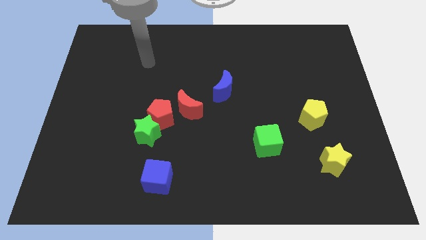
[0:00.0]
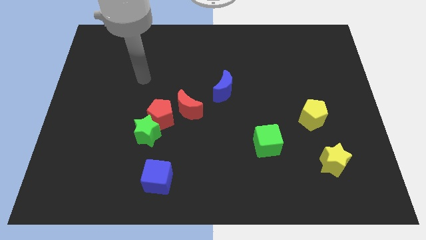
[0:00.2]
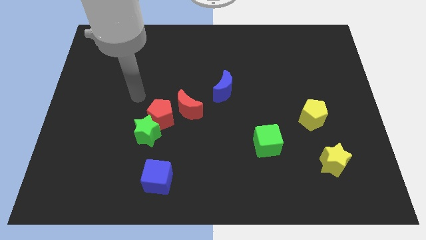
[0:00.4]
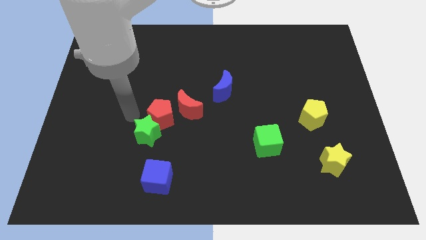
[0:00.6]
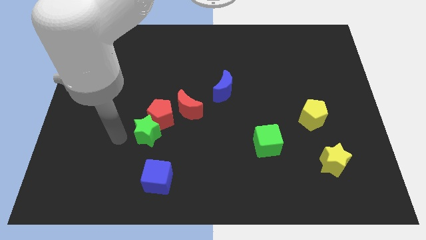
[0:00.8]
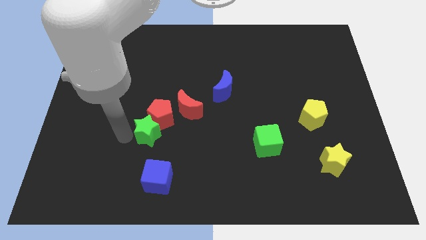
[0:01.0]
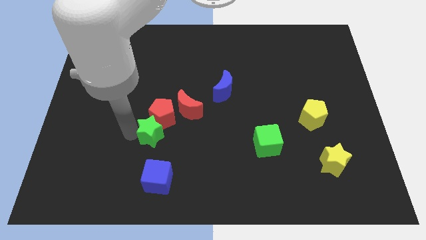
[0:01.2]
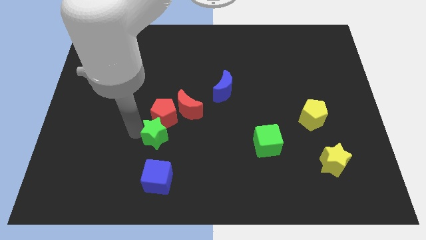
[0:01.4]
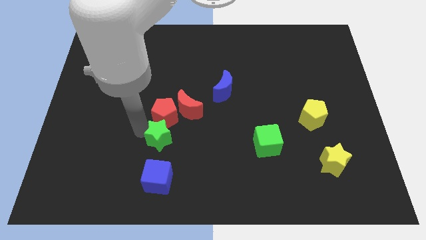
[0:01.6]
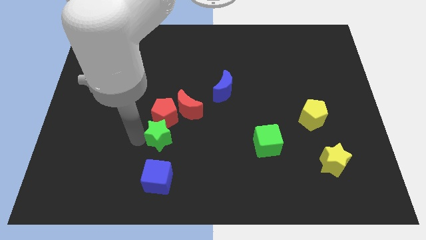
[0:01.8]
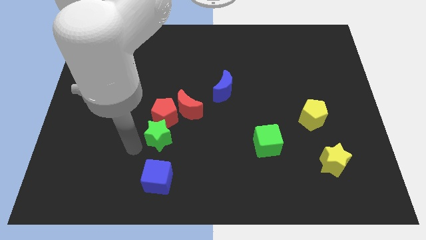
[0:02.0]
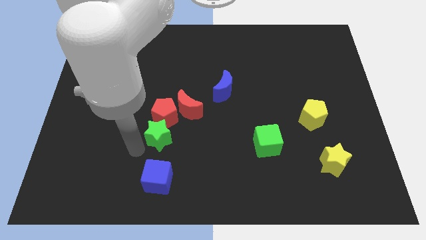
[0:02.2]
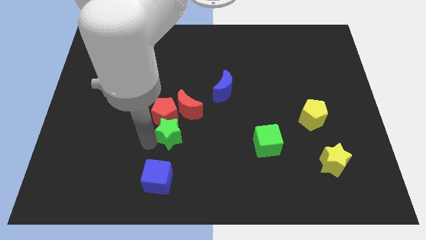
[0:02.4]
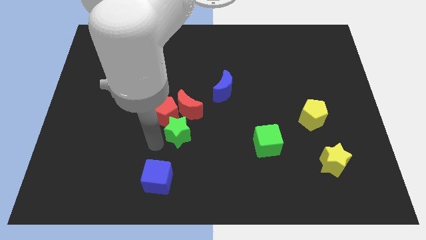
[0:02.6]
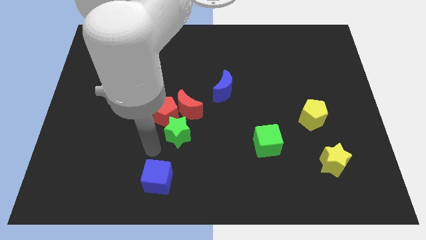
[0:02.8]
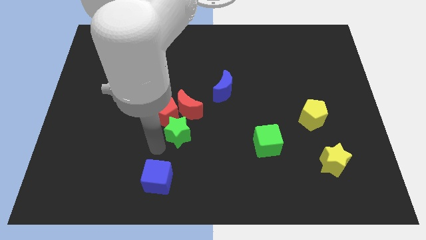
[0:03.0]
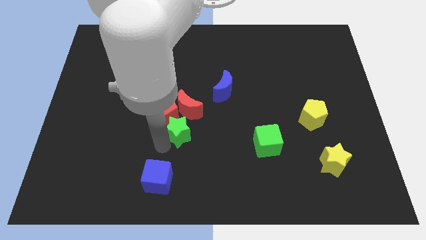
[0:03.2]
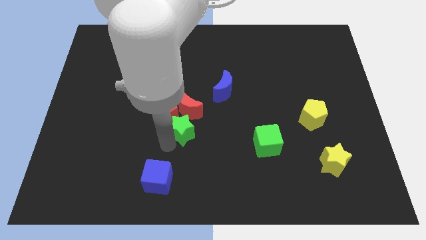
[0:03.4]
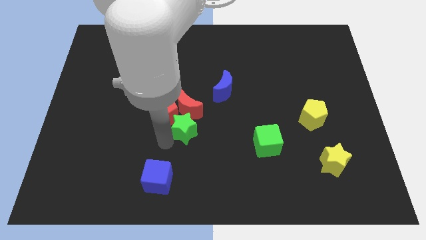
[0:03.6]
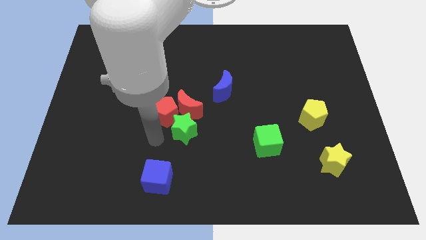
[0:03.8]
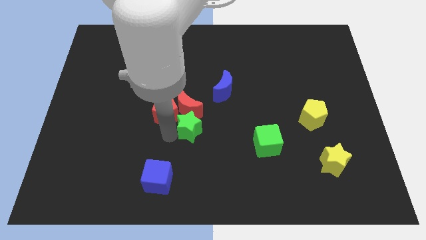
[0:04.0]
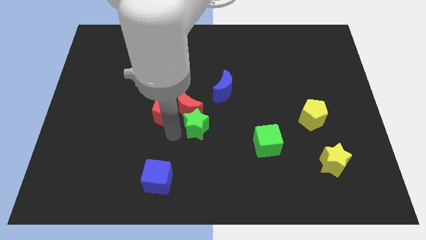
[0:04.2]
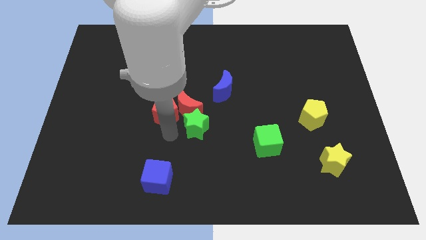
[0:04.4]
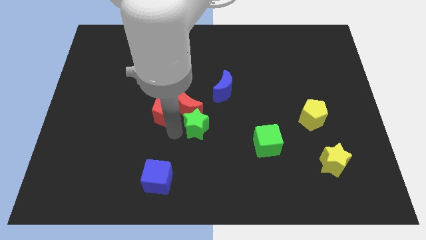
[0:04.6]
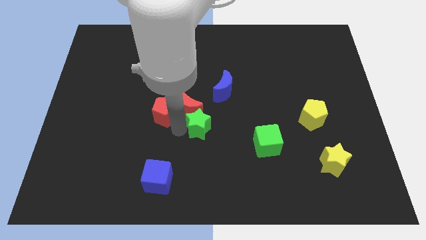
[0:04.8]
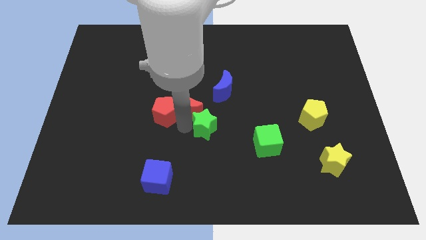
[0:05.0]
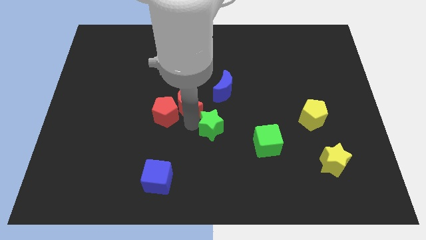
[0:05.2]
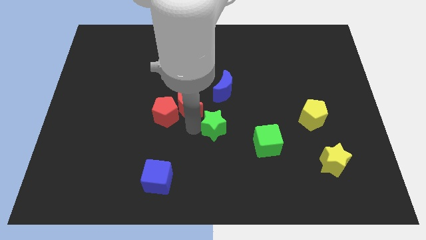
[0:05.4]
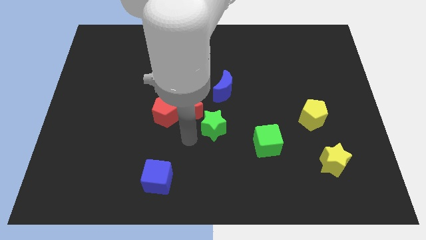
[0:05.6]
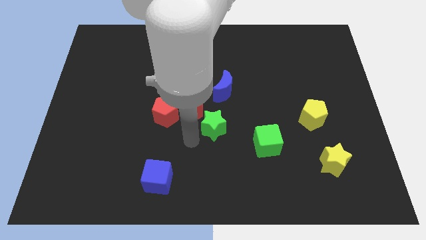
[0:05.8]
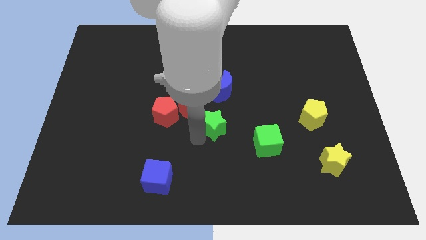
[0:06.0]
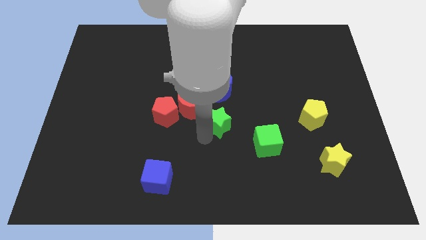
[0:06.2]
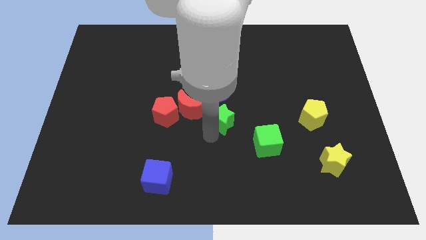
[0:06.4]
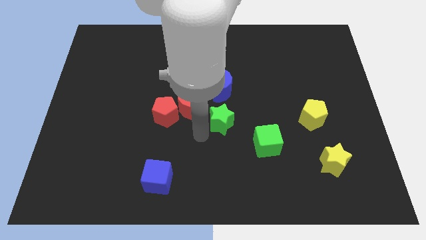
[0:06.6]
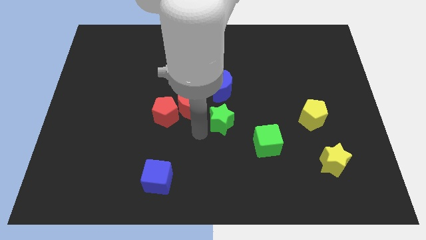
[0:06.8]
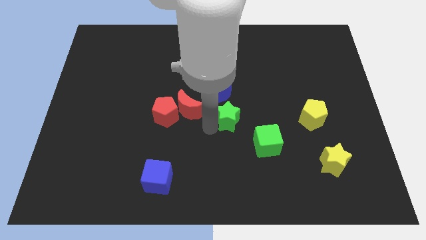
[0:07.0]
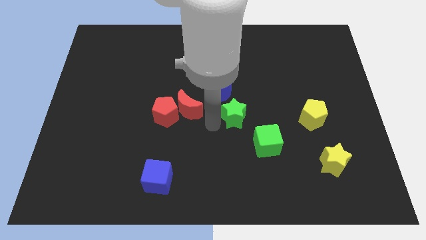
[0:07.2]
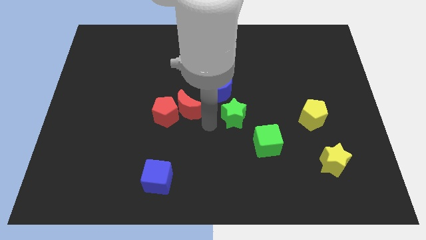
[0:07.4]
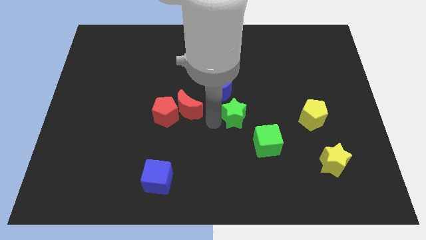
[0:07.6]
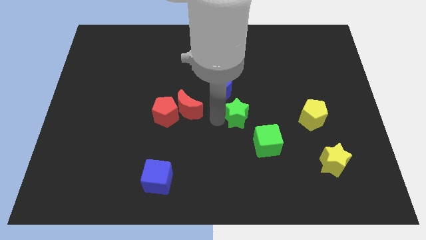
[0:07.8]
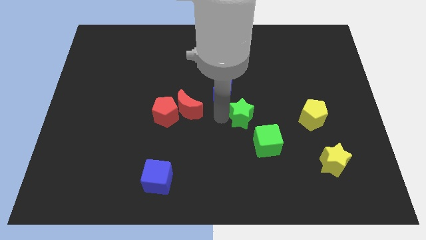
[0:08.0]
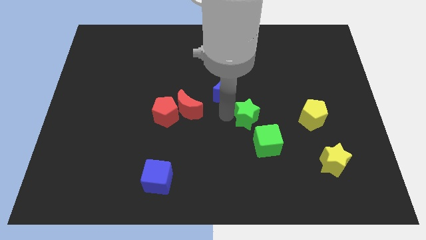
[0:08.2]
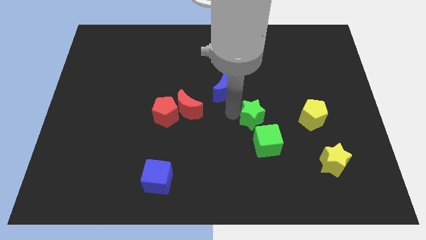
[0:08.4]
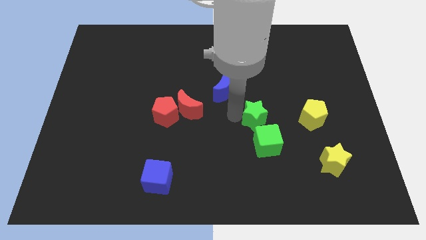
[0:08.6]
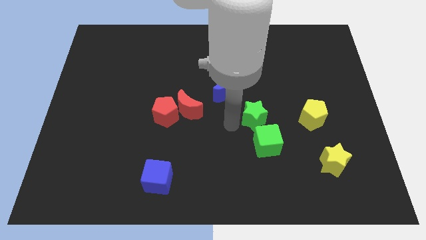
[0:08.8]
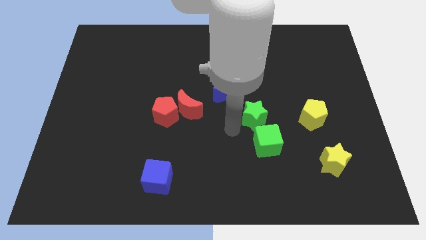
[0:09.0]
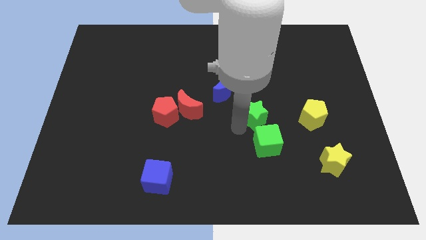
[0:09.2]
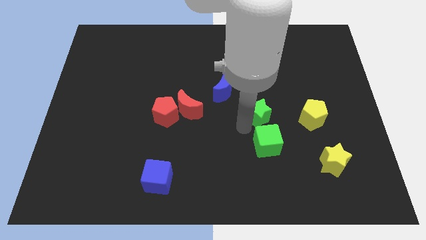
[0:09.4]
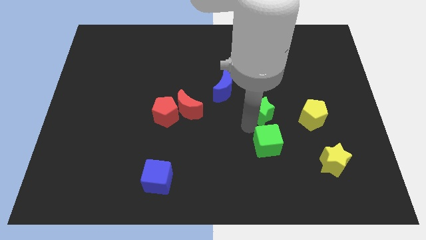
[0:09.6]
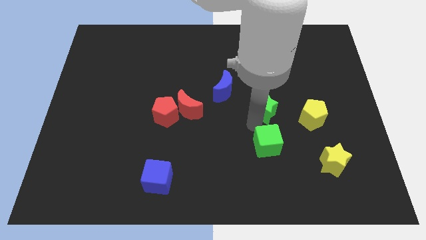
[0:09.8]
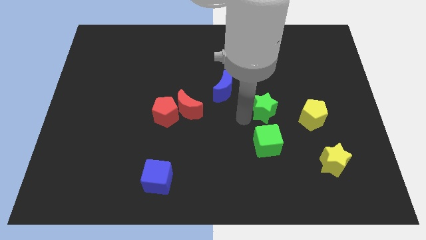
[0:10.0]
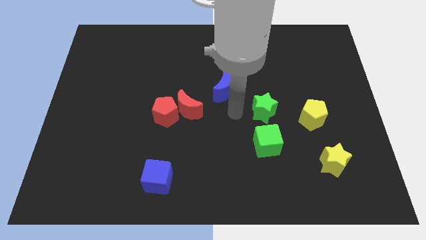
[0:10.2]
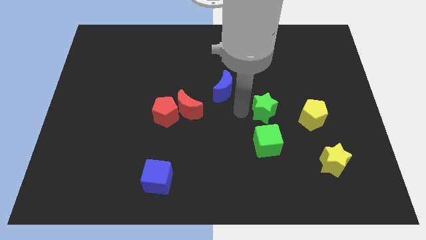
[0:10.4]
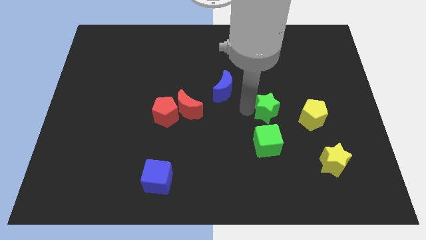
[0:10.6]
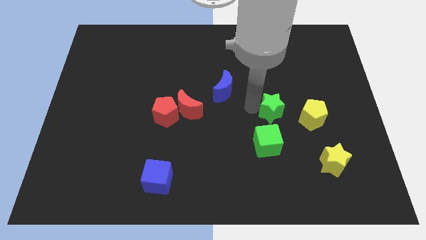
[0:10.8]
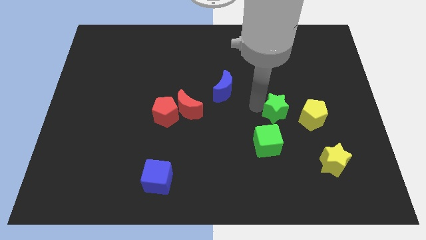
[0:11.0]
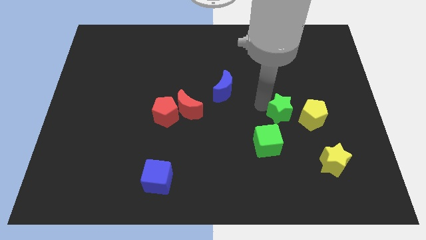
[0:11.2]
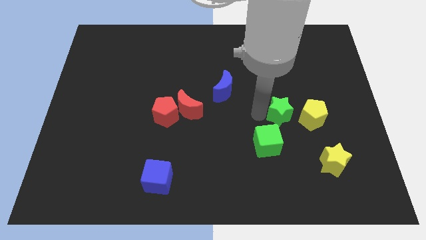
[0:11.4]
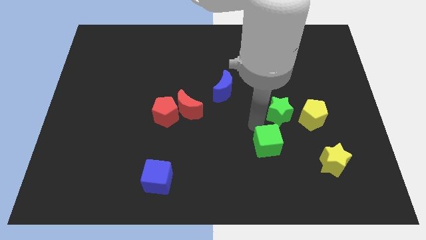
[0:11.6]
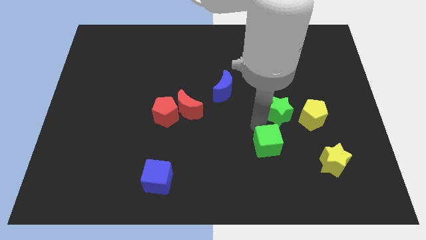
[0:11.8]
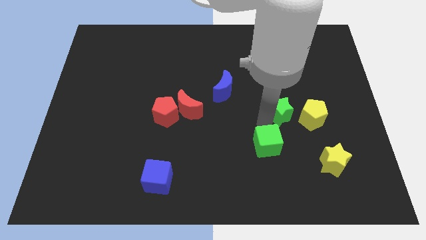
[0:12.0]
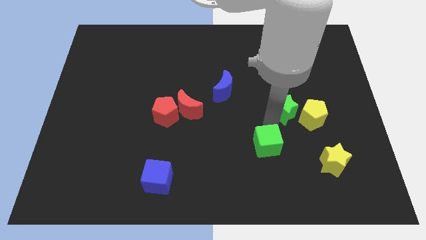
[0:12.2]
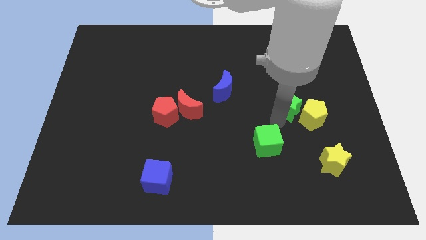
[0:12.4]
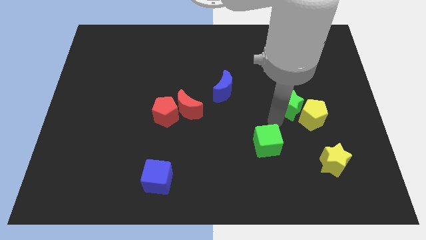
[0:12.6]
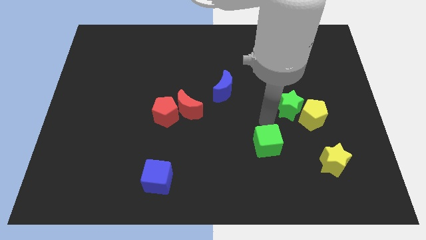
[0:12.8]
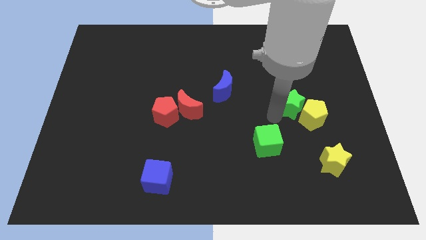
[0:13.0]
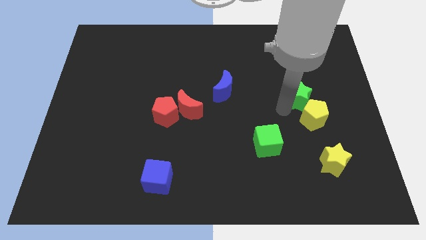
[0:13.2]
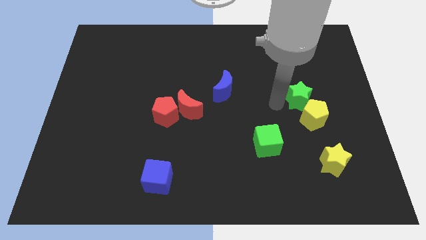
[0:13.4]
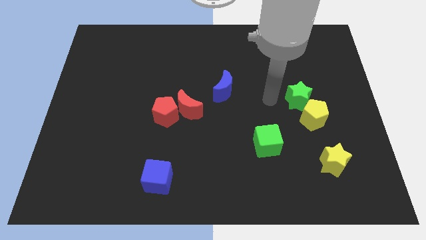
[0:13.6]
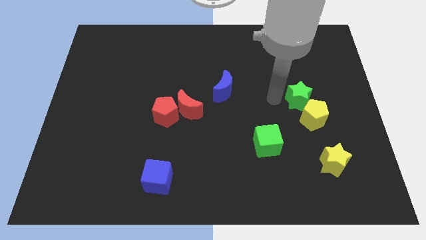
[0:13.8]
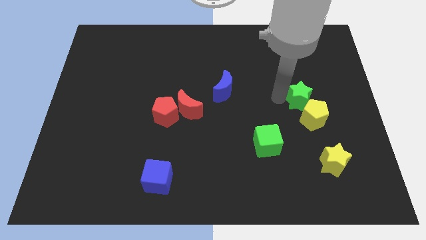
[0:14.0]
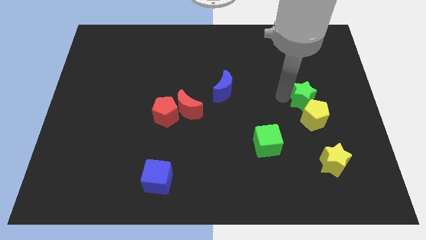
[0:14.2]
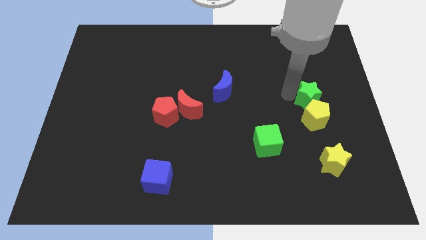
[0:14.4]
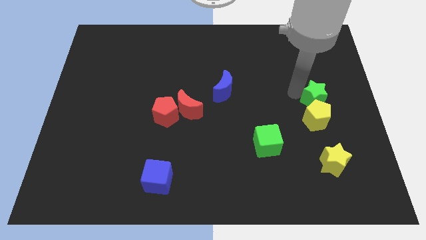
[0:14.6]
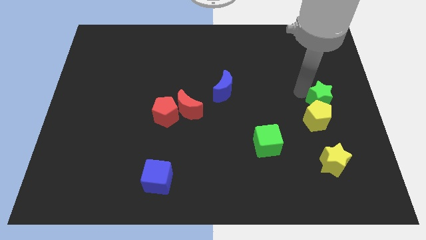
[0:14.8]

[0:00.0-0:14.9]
slide the green star to the center right
